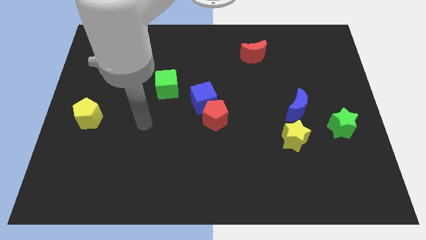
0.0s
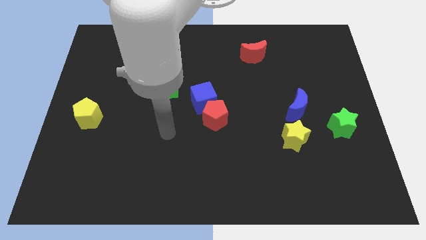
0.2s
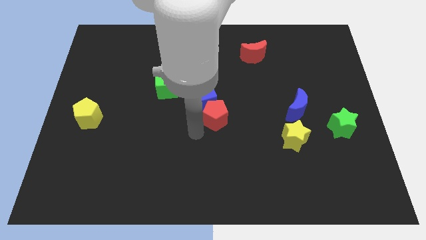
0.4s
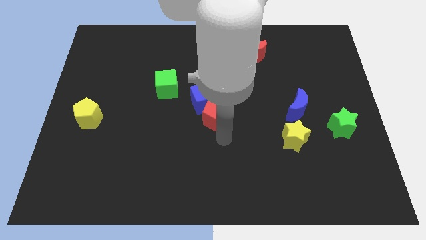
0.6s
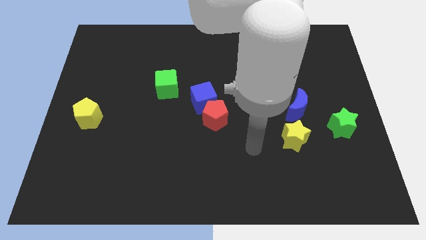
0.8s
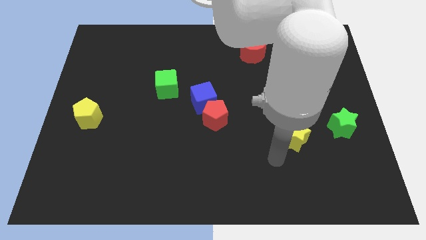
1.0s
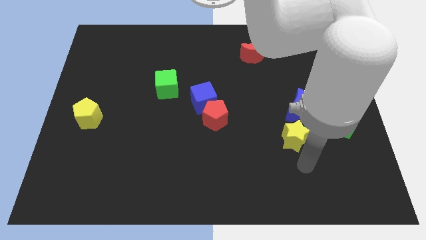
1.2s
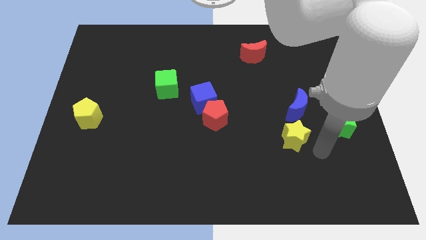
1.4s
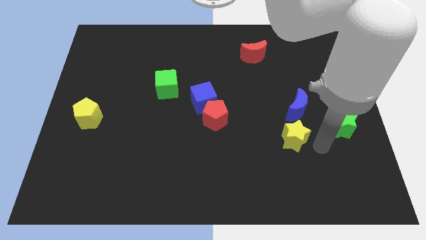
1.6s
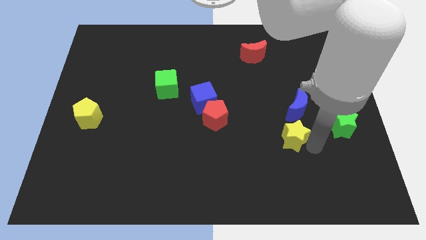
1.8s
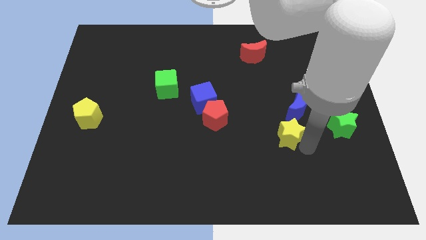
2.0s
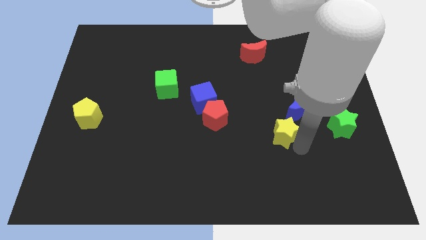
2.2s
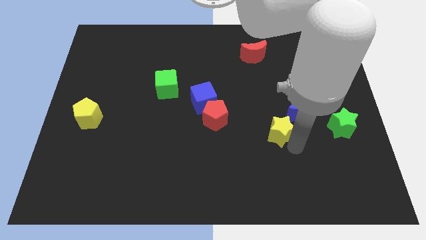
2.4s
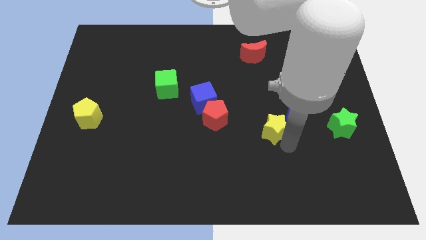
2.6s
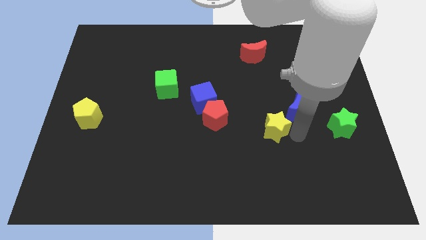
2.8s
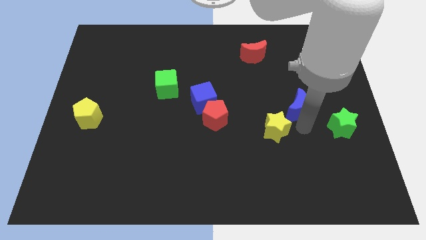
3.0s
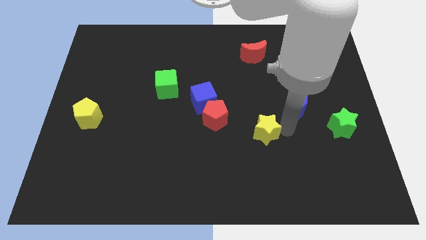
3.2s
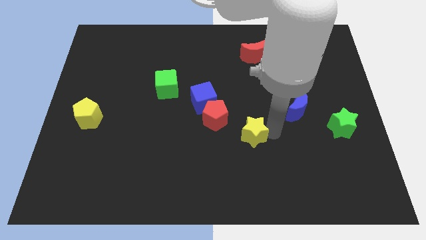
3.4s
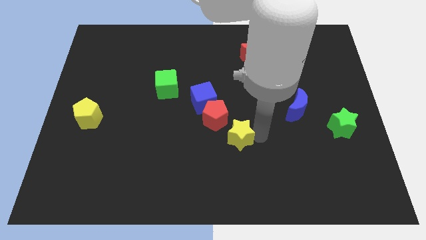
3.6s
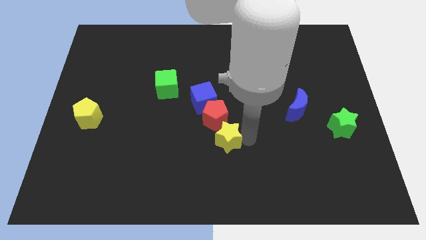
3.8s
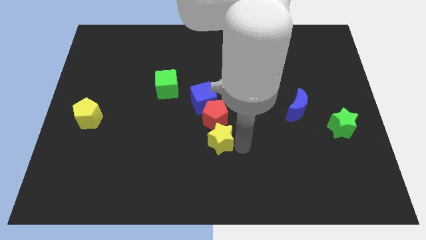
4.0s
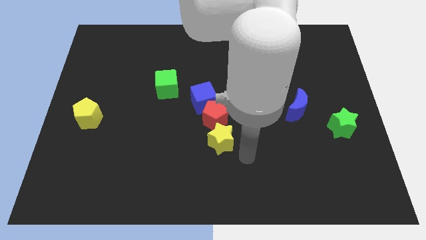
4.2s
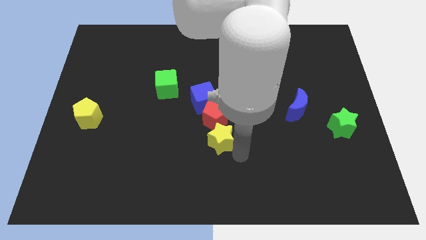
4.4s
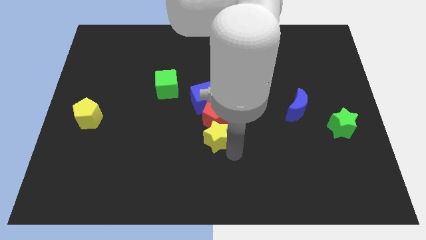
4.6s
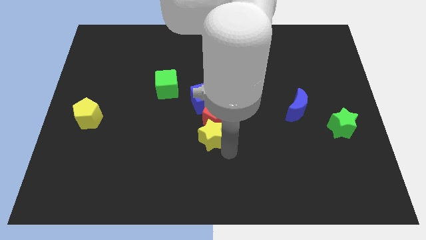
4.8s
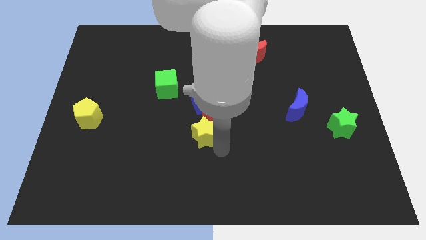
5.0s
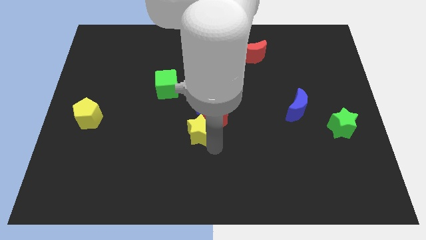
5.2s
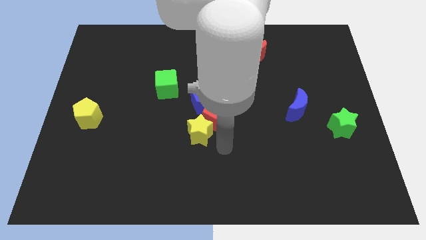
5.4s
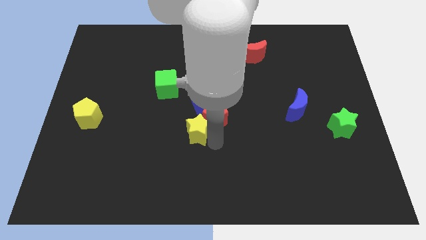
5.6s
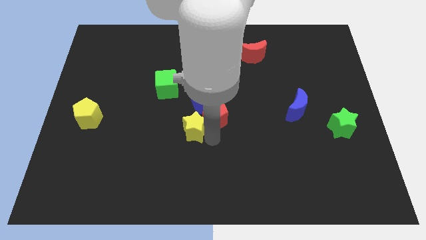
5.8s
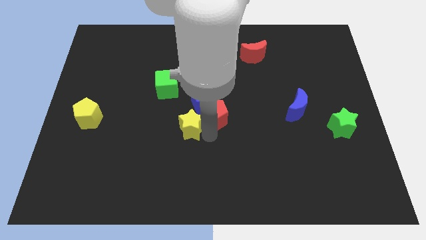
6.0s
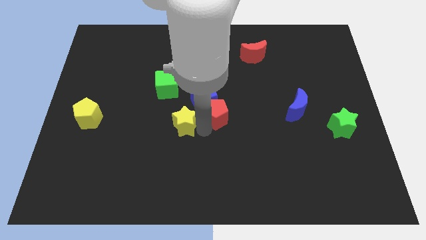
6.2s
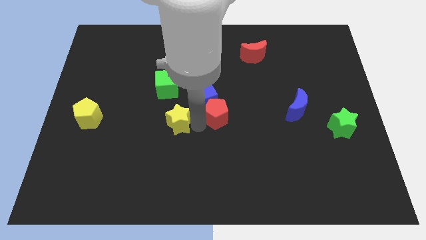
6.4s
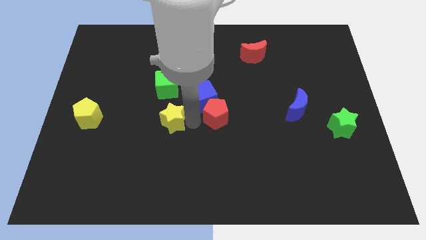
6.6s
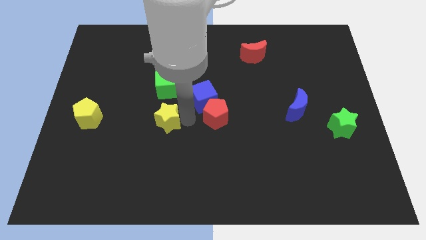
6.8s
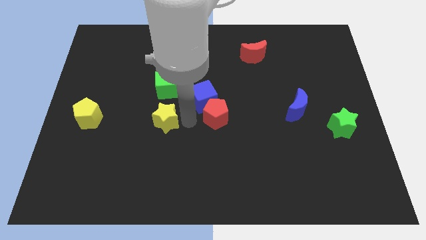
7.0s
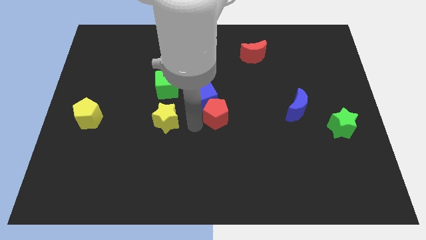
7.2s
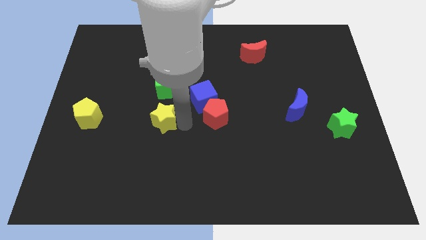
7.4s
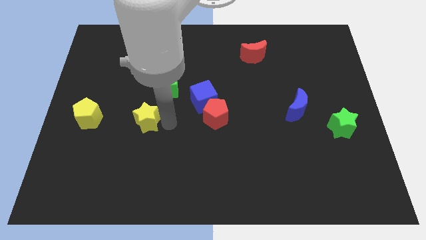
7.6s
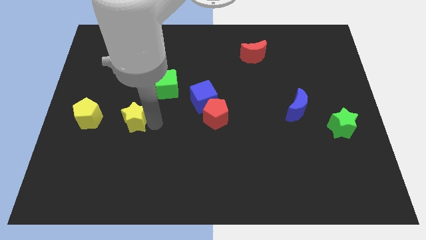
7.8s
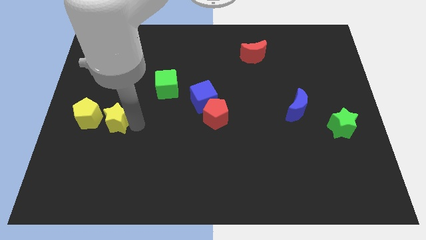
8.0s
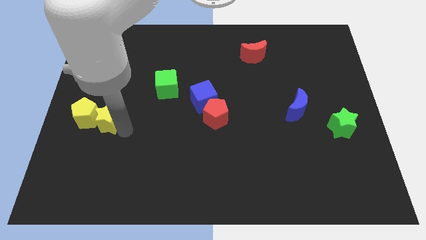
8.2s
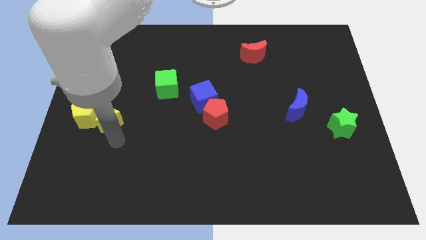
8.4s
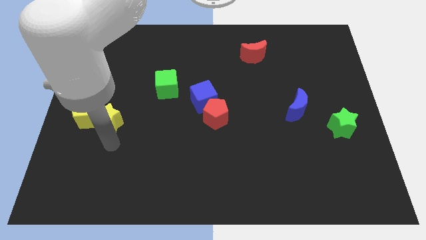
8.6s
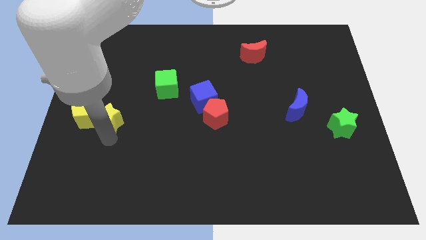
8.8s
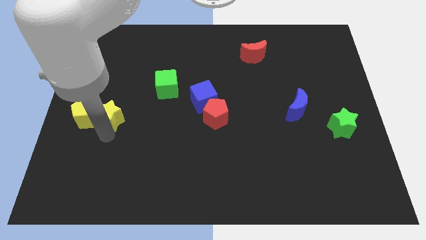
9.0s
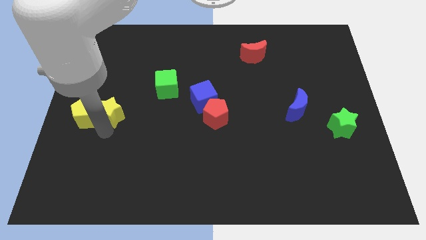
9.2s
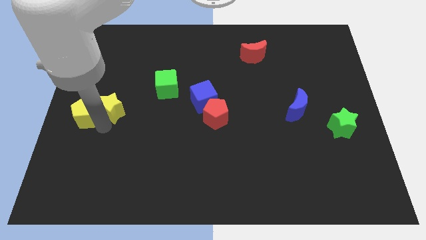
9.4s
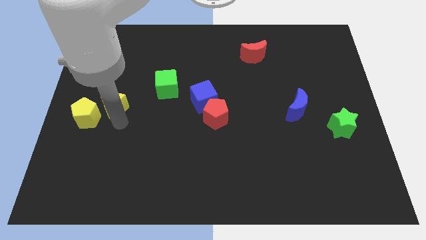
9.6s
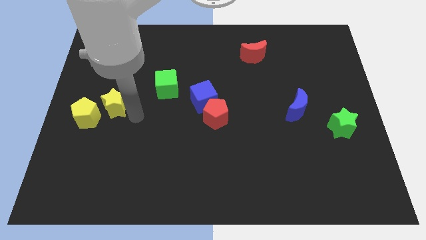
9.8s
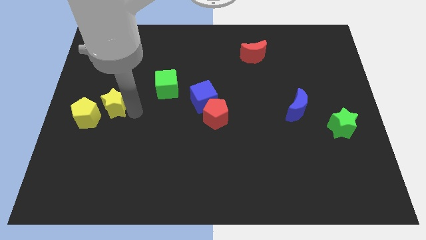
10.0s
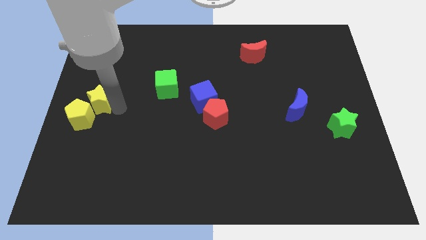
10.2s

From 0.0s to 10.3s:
move the yellow star to the center left

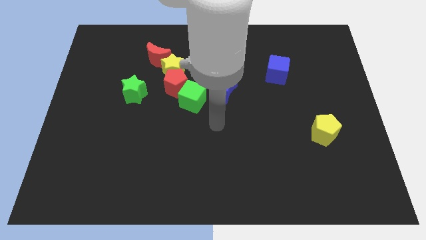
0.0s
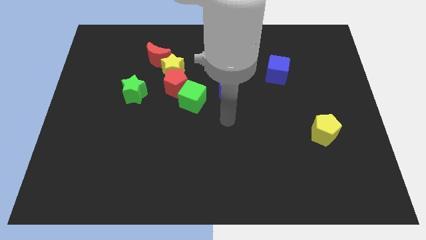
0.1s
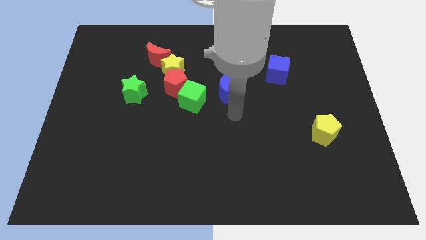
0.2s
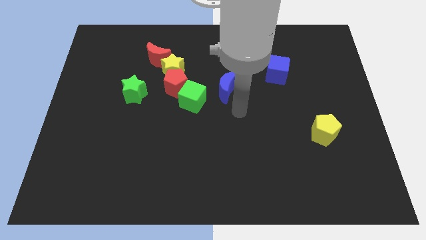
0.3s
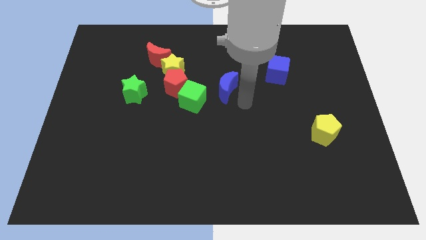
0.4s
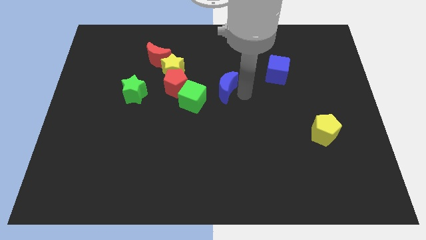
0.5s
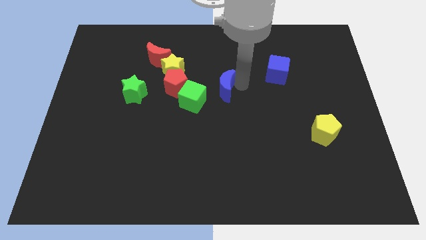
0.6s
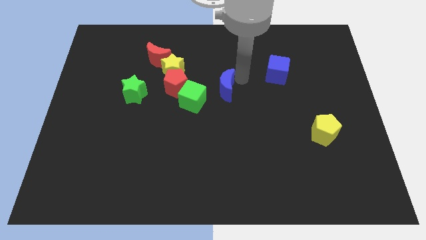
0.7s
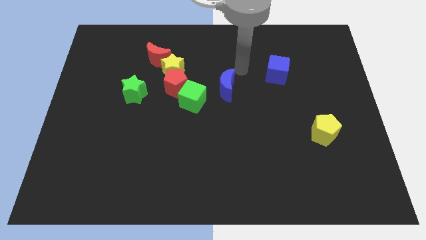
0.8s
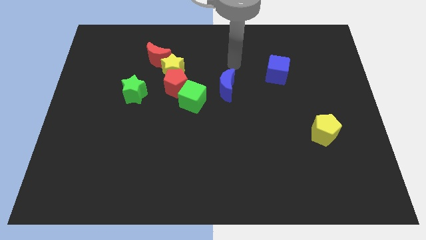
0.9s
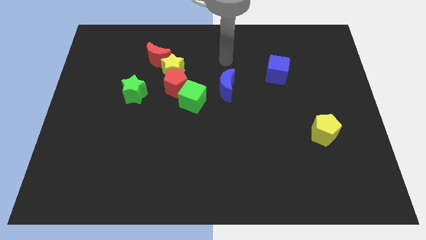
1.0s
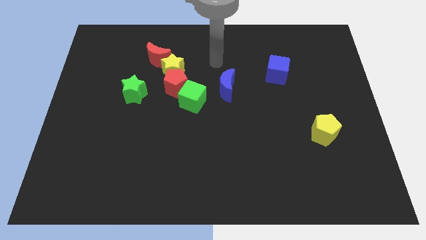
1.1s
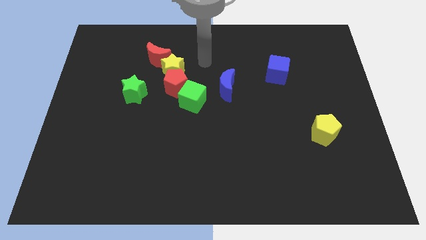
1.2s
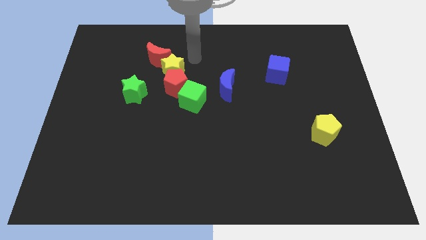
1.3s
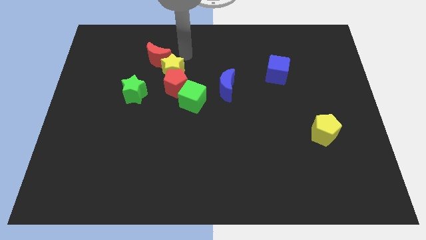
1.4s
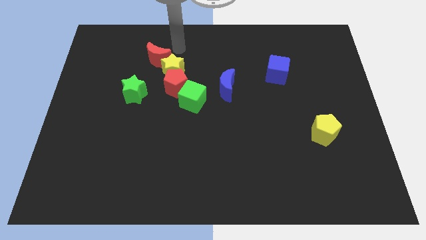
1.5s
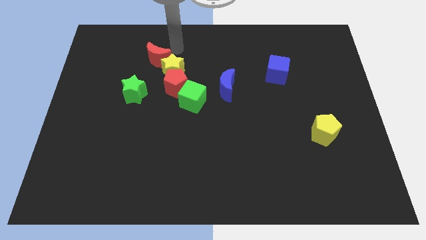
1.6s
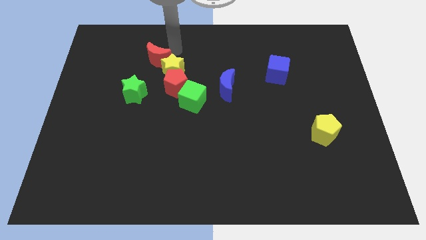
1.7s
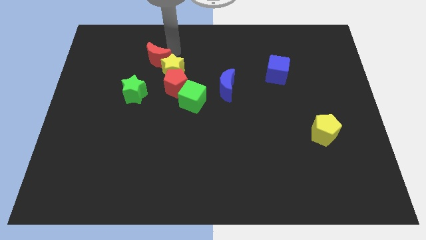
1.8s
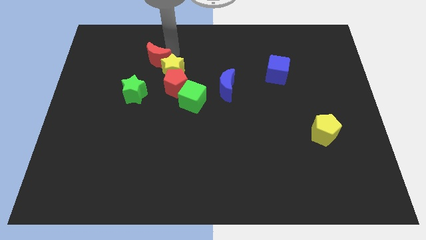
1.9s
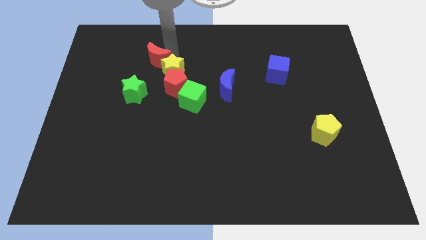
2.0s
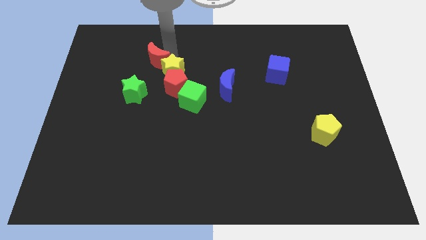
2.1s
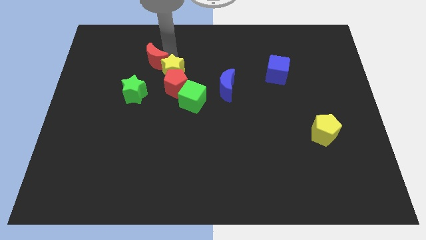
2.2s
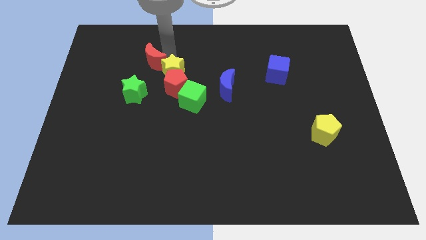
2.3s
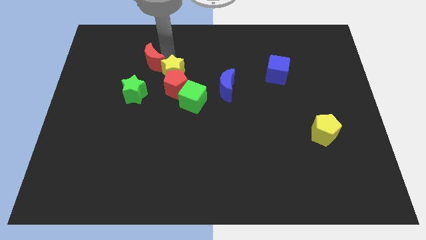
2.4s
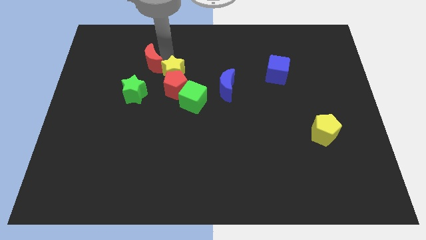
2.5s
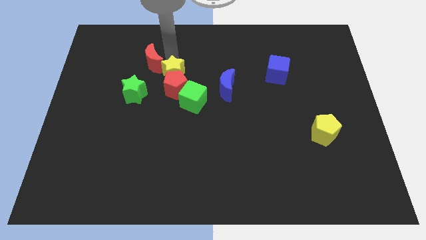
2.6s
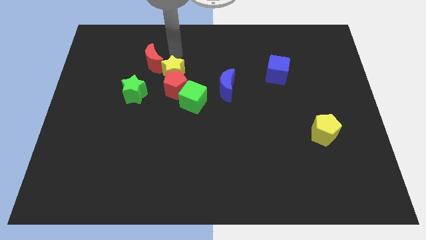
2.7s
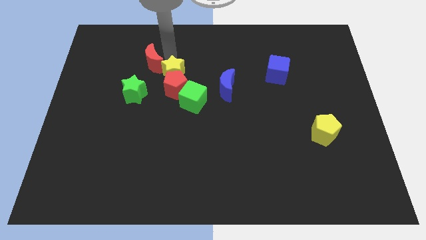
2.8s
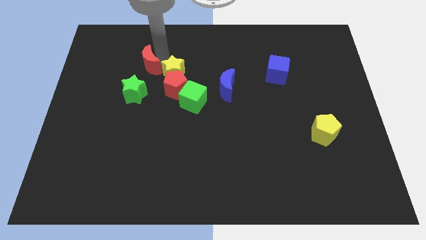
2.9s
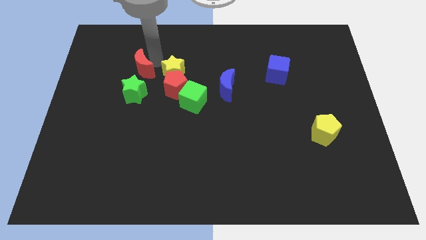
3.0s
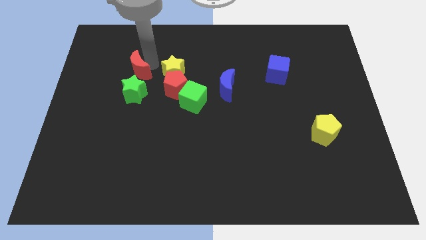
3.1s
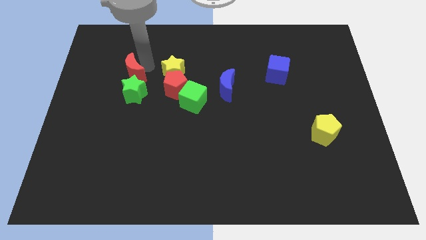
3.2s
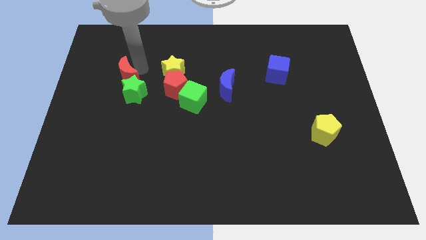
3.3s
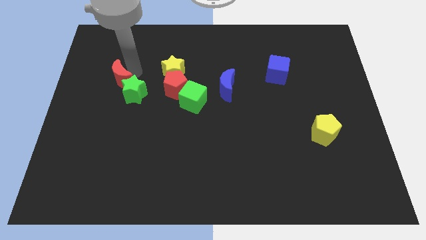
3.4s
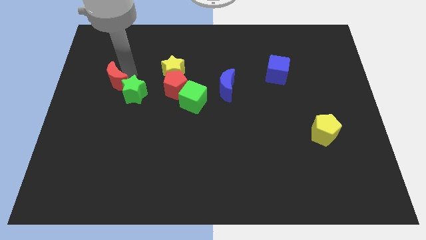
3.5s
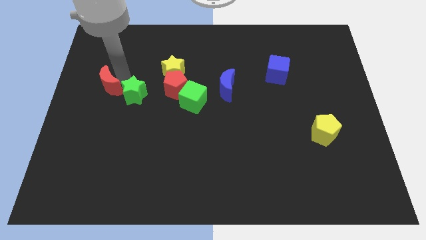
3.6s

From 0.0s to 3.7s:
push the red moon to the center left
